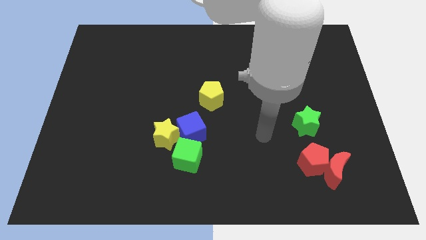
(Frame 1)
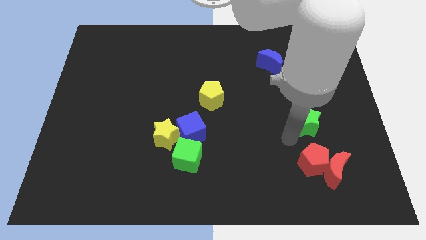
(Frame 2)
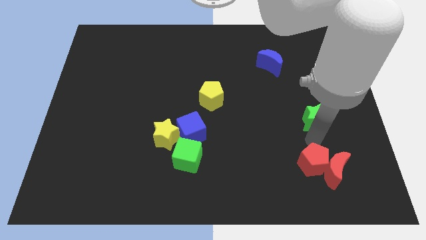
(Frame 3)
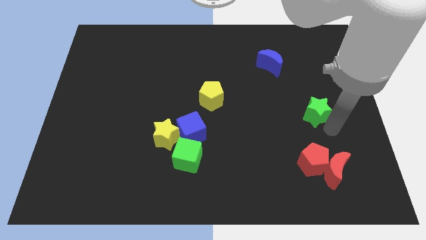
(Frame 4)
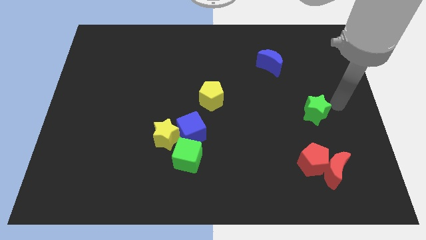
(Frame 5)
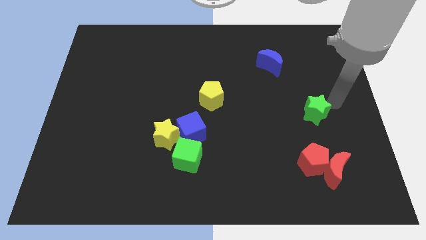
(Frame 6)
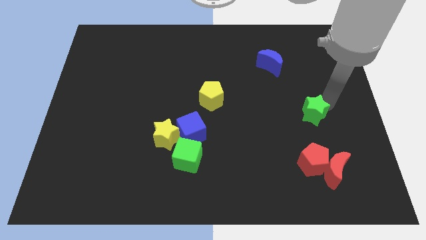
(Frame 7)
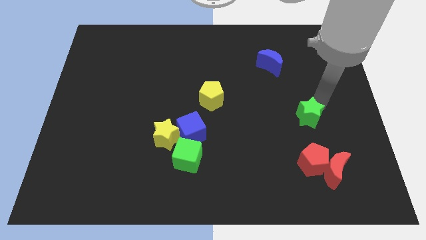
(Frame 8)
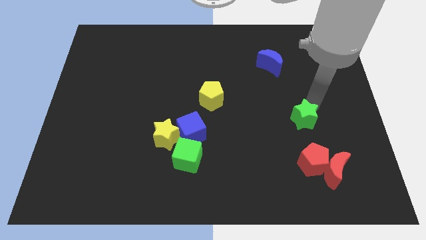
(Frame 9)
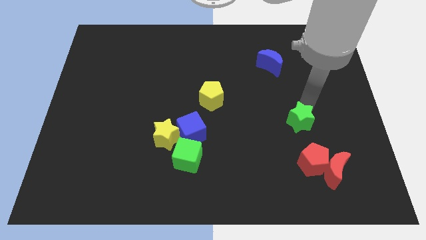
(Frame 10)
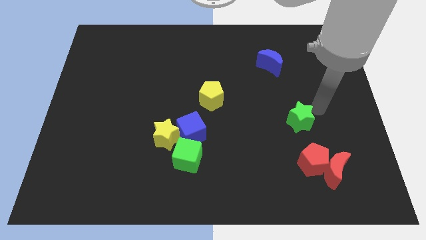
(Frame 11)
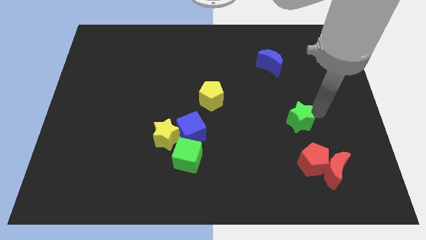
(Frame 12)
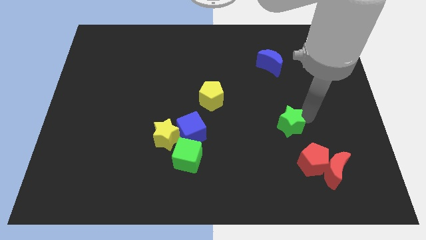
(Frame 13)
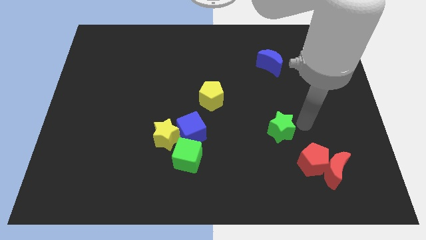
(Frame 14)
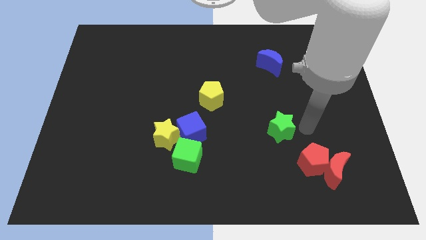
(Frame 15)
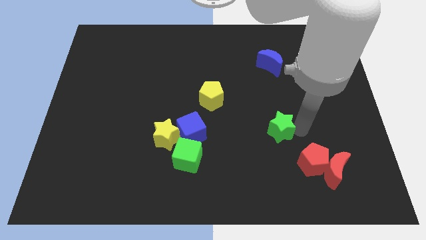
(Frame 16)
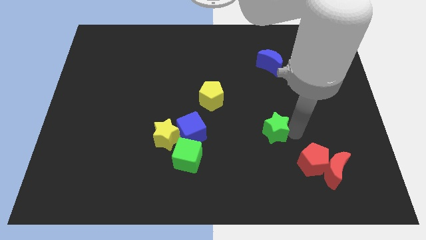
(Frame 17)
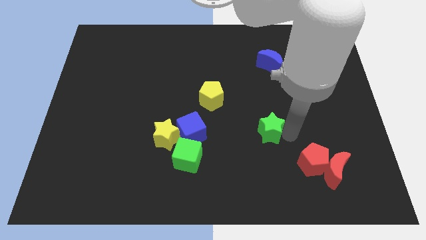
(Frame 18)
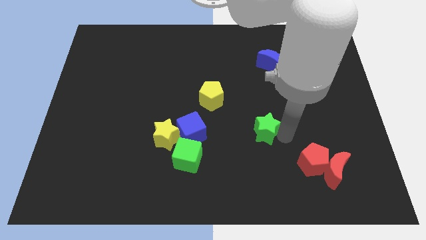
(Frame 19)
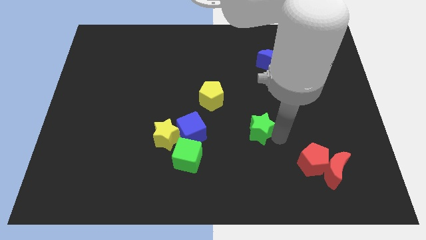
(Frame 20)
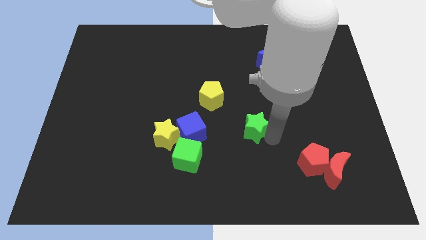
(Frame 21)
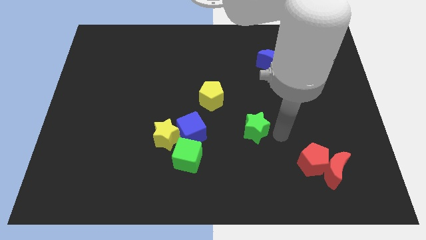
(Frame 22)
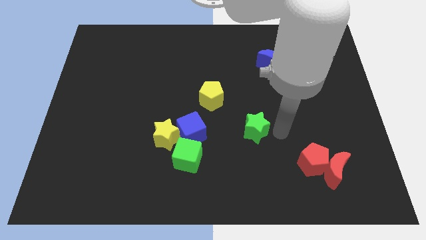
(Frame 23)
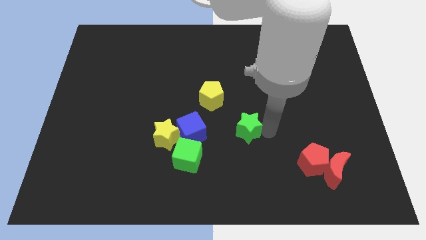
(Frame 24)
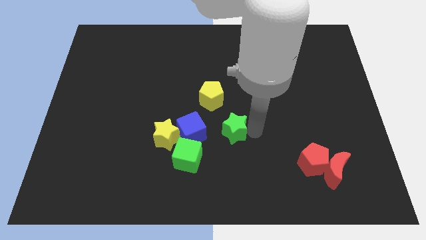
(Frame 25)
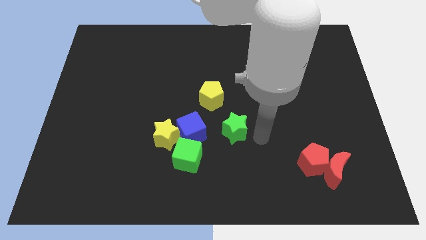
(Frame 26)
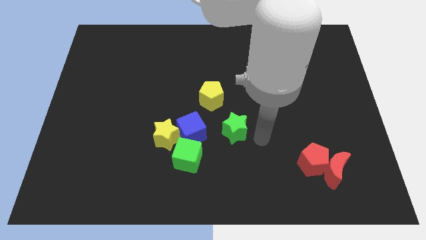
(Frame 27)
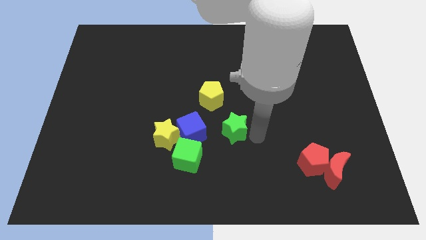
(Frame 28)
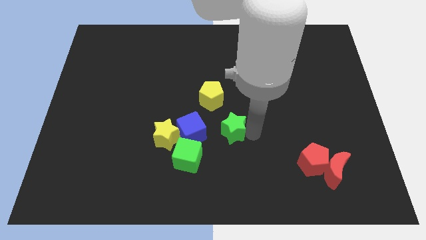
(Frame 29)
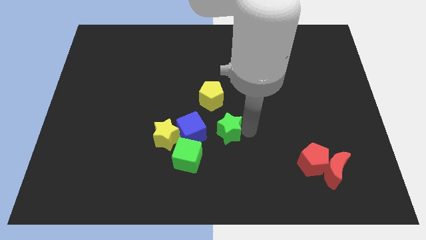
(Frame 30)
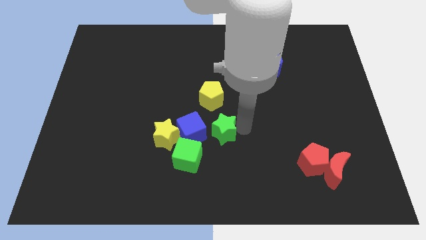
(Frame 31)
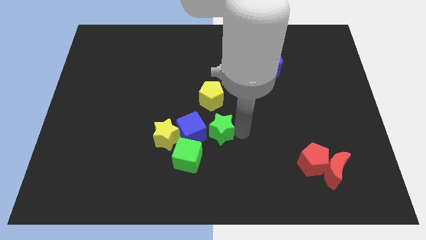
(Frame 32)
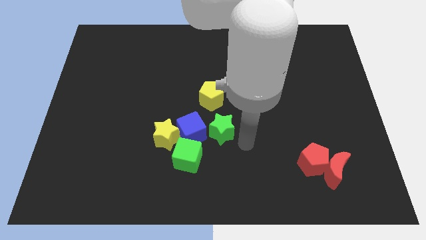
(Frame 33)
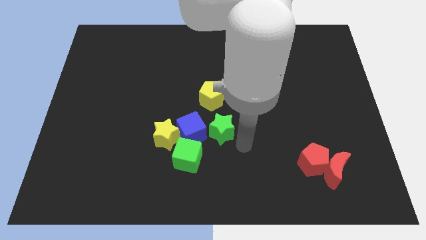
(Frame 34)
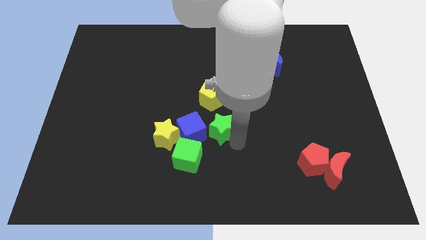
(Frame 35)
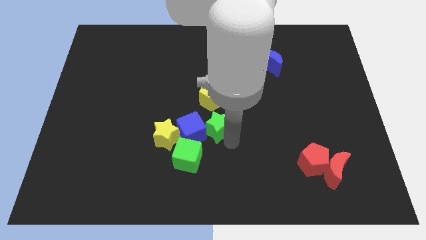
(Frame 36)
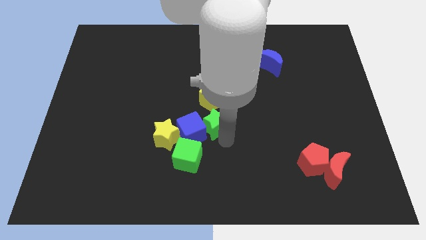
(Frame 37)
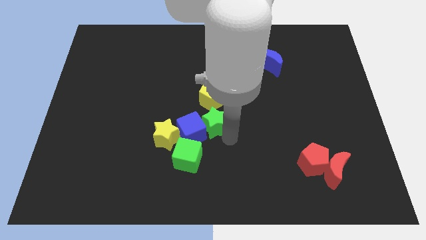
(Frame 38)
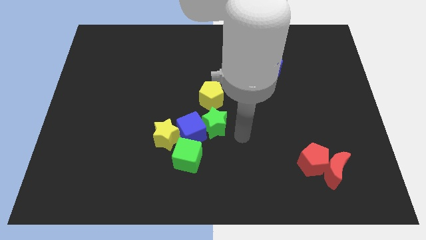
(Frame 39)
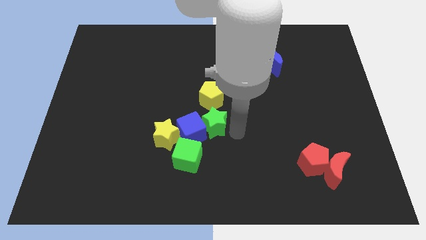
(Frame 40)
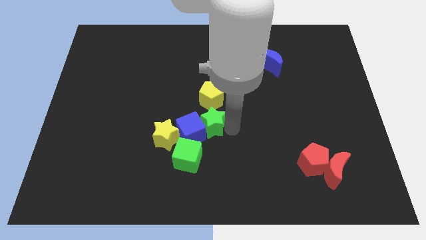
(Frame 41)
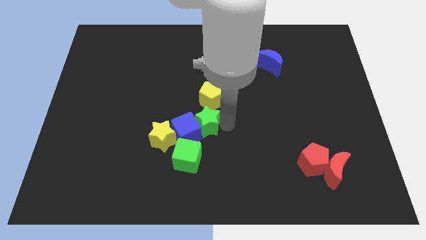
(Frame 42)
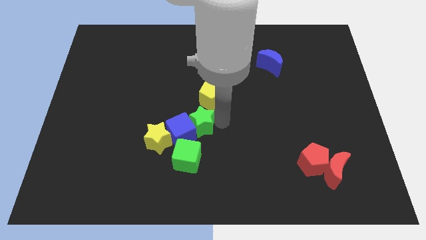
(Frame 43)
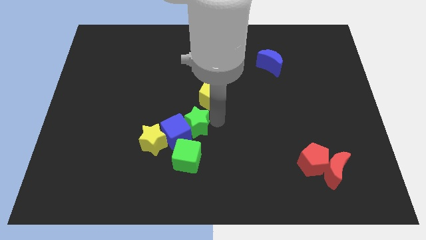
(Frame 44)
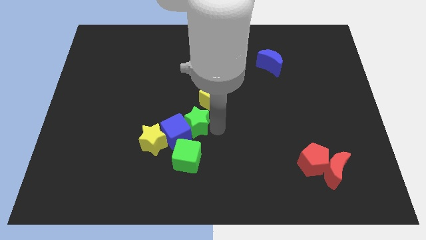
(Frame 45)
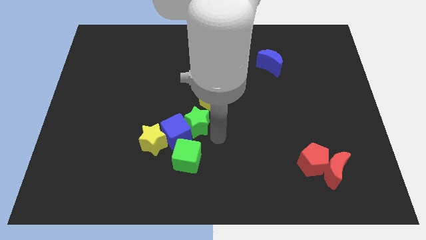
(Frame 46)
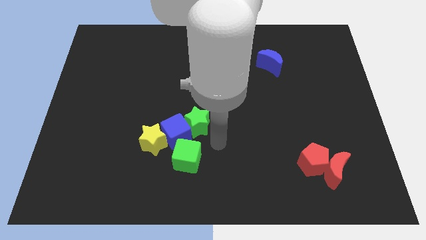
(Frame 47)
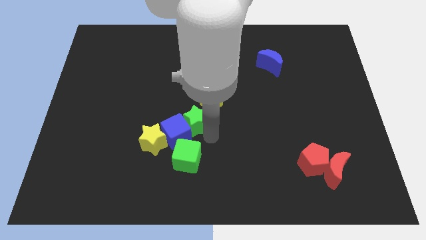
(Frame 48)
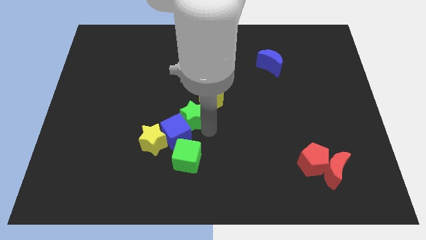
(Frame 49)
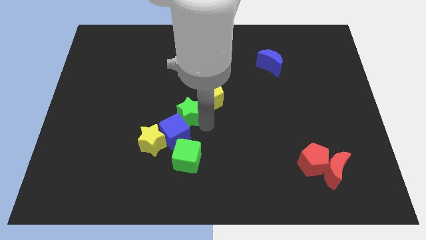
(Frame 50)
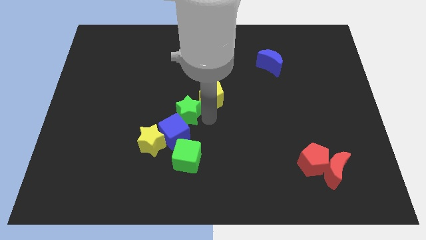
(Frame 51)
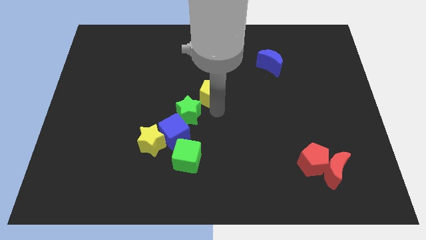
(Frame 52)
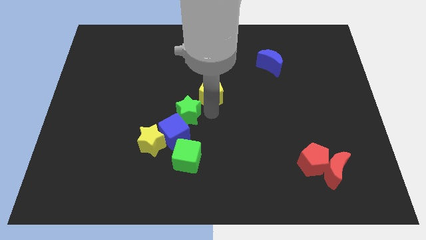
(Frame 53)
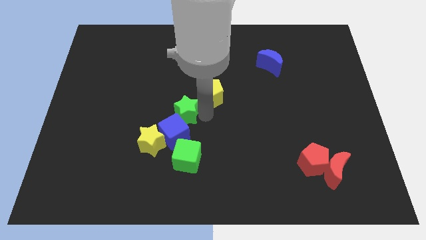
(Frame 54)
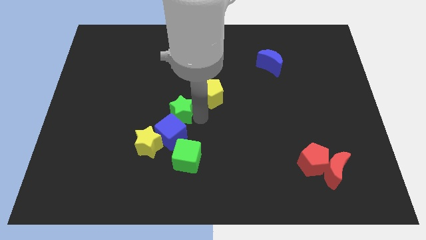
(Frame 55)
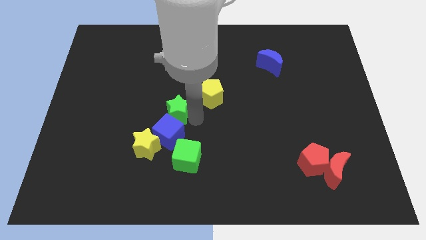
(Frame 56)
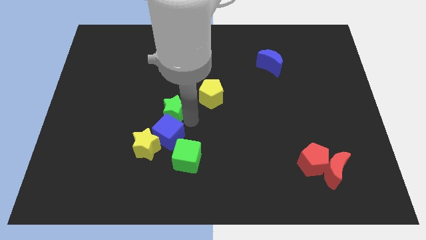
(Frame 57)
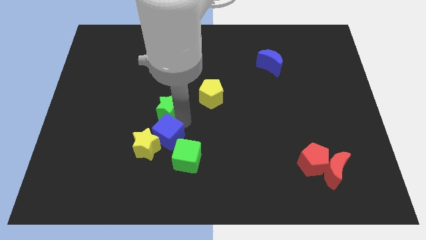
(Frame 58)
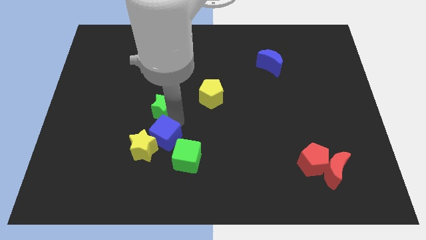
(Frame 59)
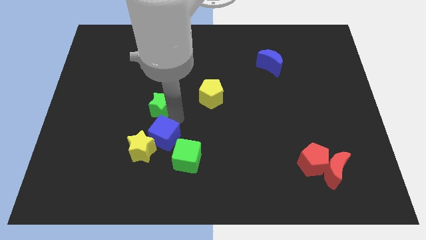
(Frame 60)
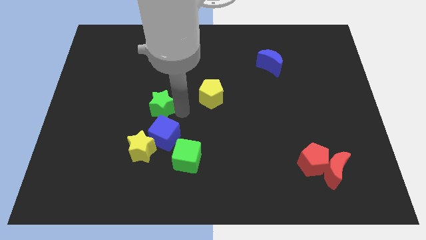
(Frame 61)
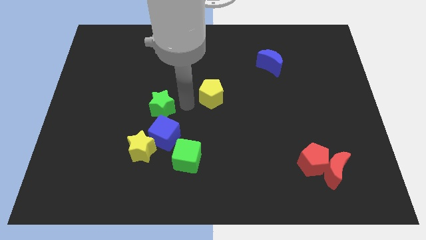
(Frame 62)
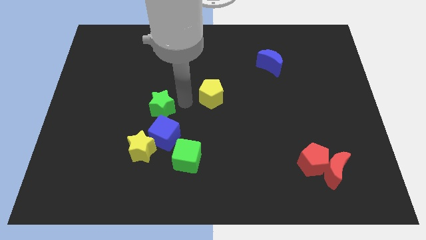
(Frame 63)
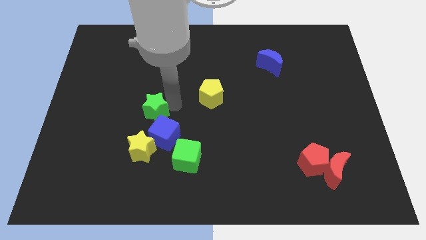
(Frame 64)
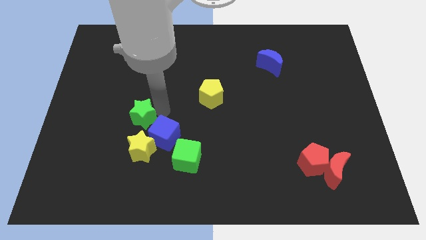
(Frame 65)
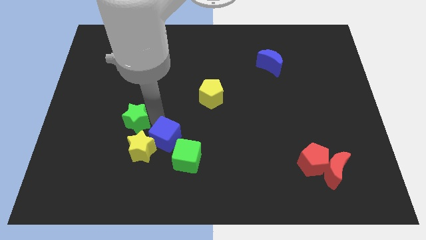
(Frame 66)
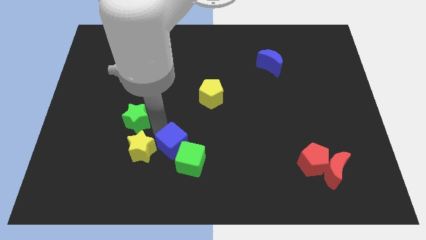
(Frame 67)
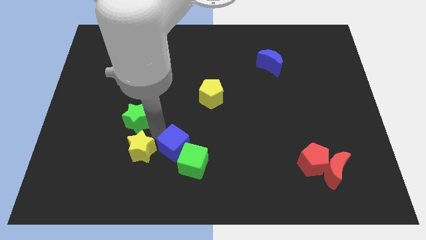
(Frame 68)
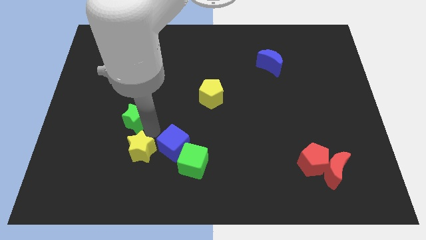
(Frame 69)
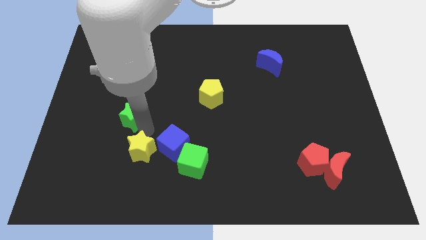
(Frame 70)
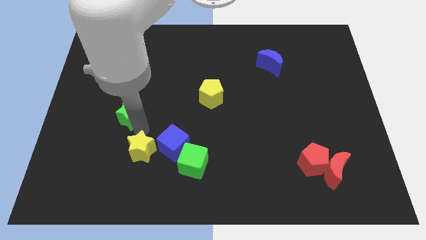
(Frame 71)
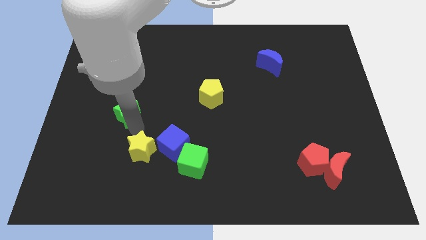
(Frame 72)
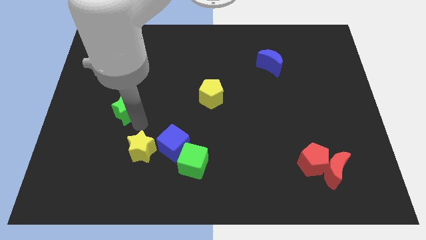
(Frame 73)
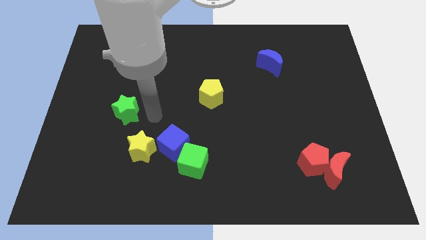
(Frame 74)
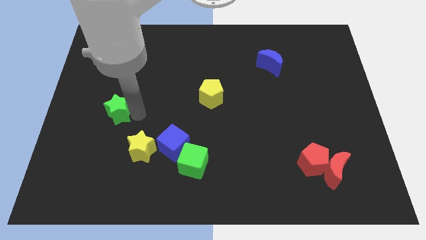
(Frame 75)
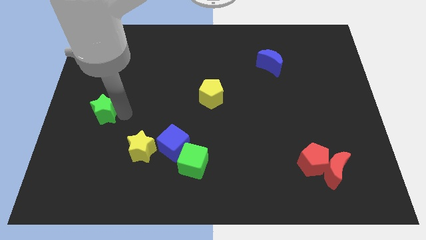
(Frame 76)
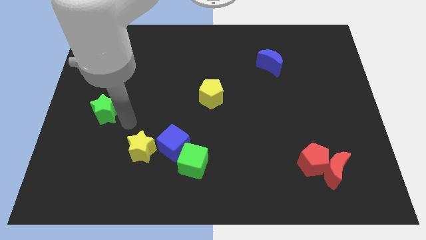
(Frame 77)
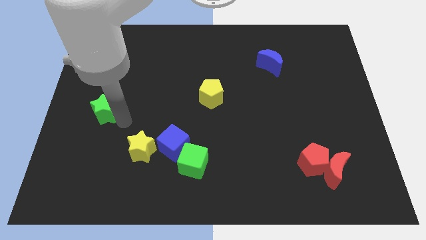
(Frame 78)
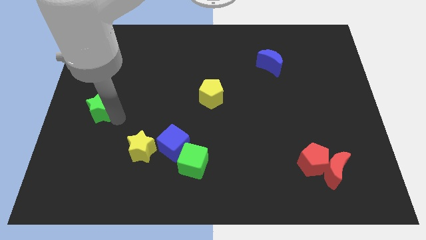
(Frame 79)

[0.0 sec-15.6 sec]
slide the green star to the left side of the board
